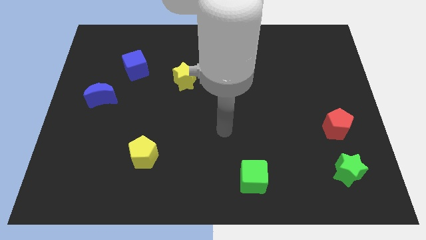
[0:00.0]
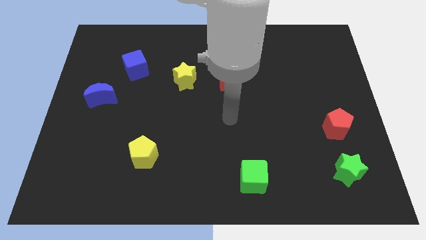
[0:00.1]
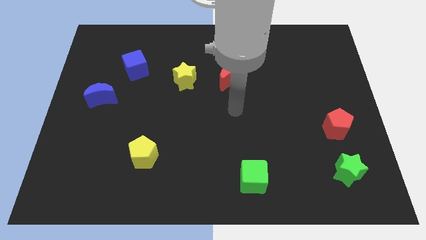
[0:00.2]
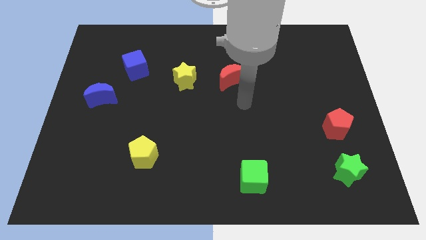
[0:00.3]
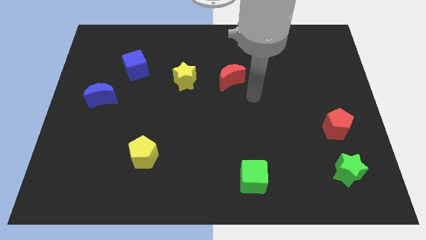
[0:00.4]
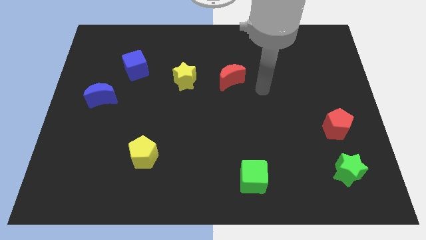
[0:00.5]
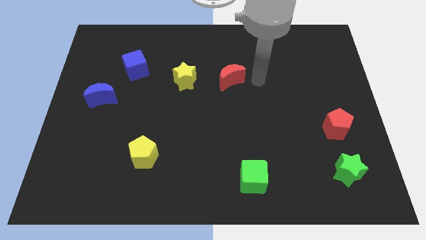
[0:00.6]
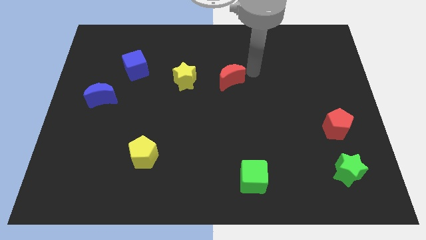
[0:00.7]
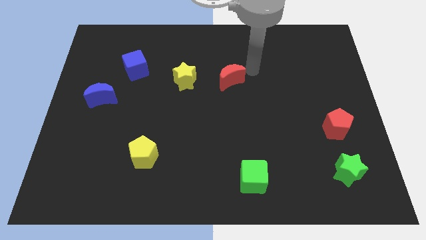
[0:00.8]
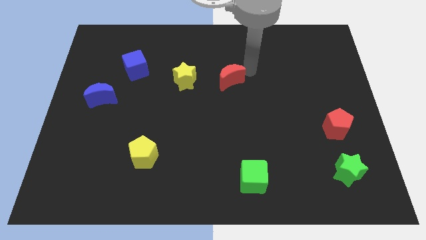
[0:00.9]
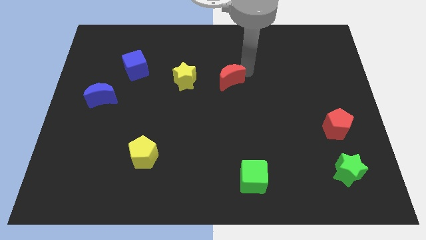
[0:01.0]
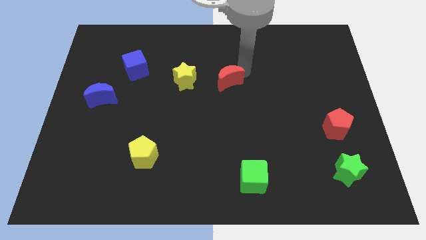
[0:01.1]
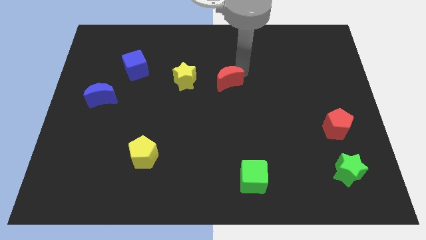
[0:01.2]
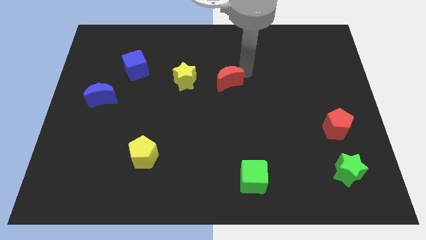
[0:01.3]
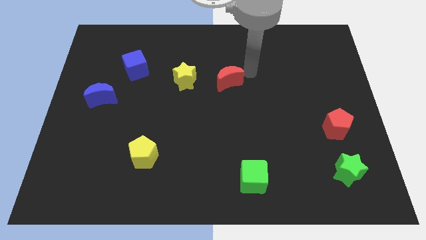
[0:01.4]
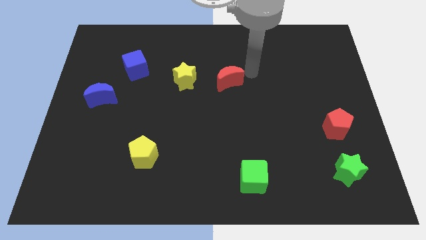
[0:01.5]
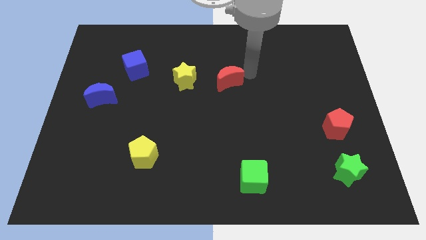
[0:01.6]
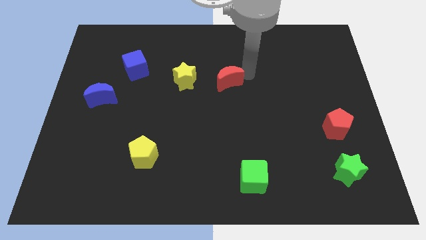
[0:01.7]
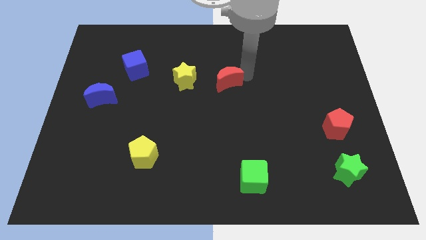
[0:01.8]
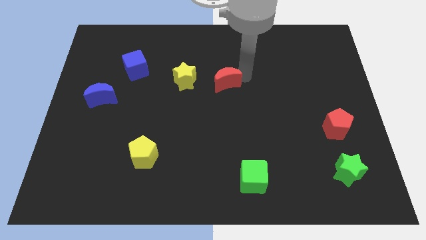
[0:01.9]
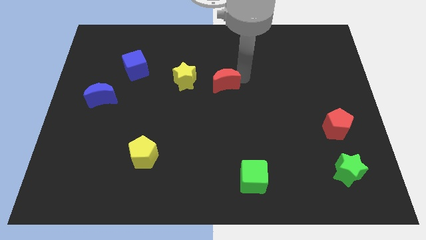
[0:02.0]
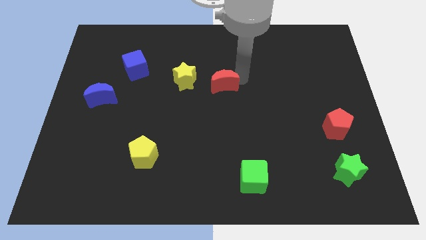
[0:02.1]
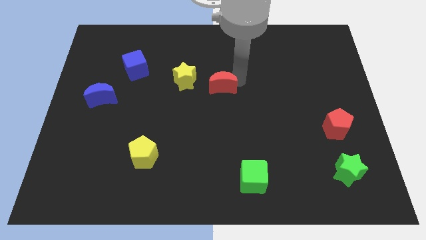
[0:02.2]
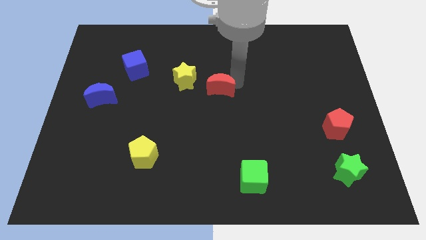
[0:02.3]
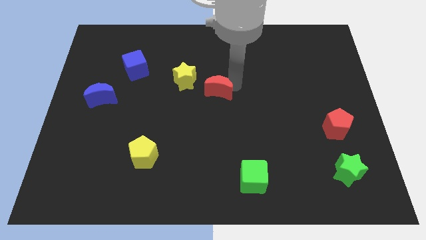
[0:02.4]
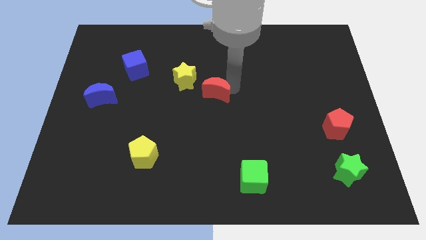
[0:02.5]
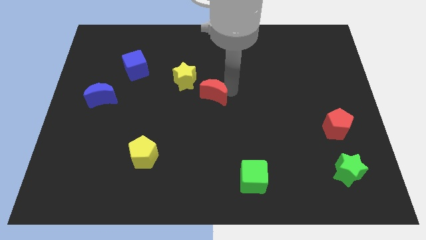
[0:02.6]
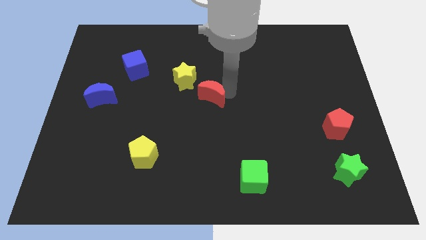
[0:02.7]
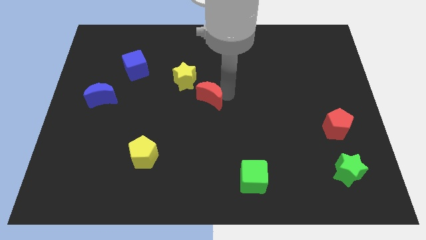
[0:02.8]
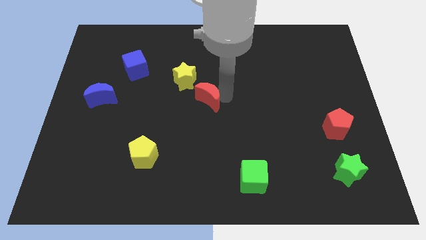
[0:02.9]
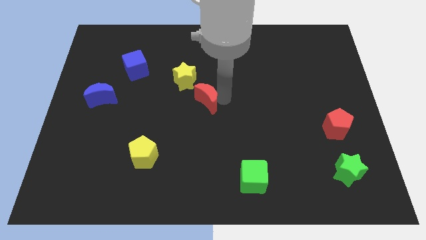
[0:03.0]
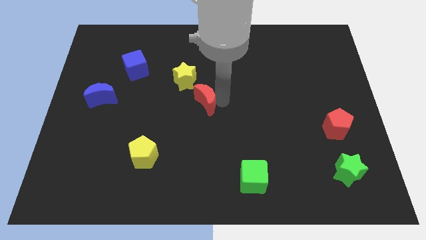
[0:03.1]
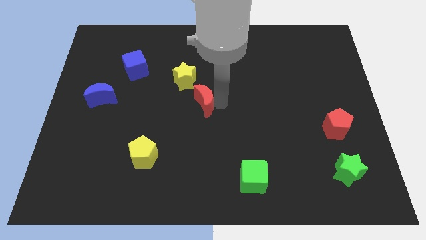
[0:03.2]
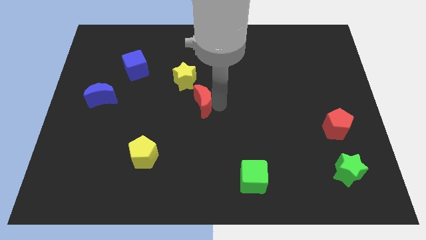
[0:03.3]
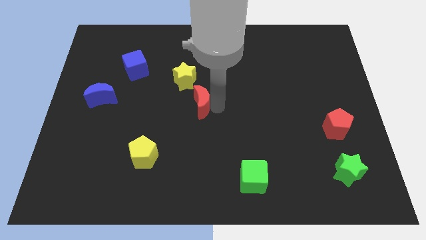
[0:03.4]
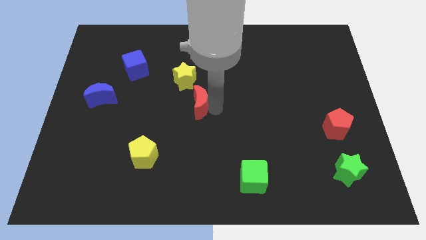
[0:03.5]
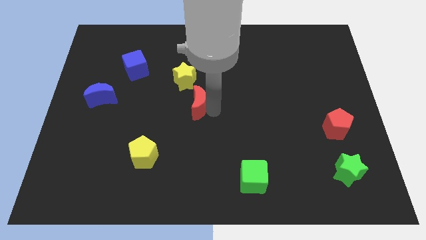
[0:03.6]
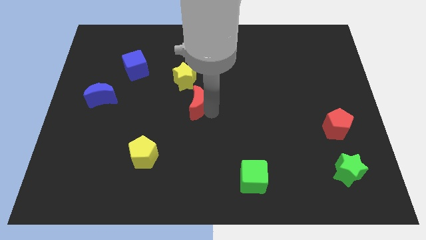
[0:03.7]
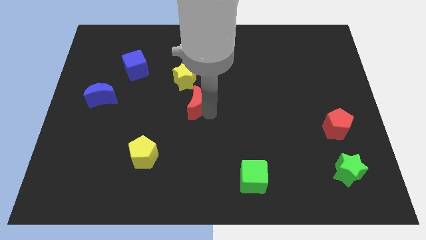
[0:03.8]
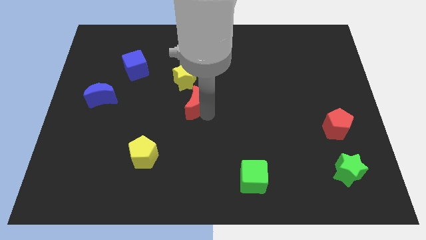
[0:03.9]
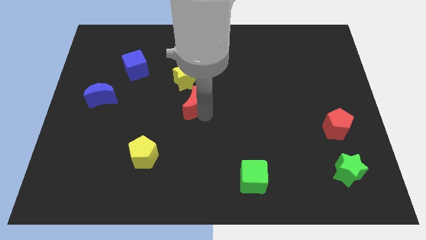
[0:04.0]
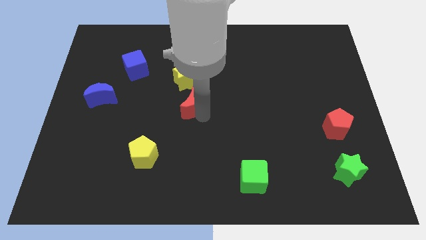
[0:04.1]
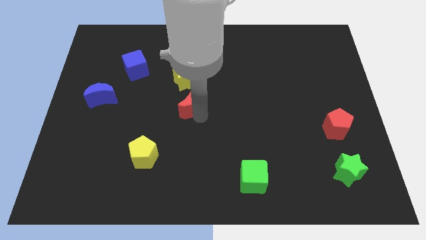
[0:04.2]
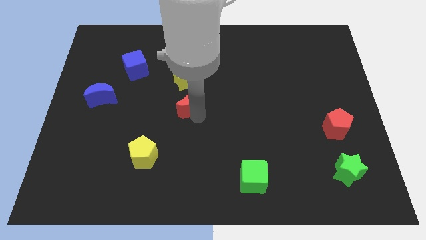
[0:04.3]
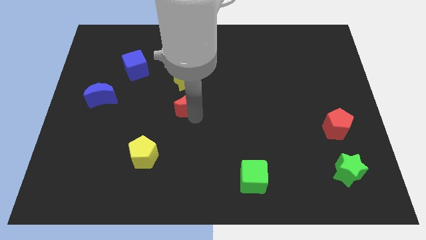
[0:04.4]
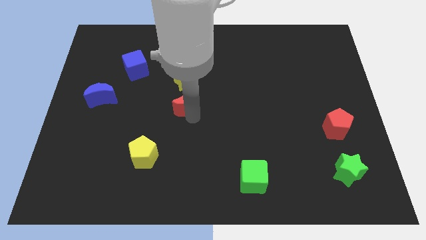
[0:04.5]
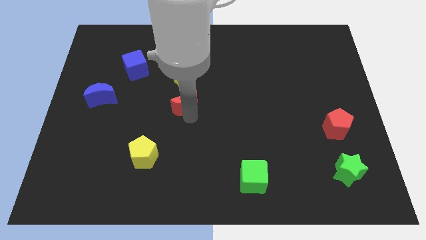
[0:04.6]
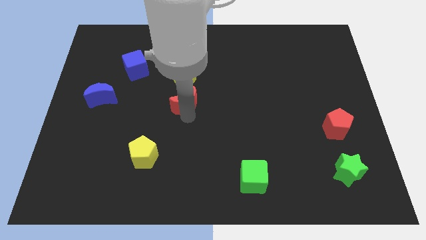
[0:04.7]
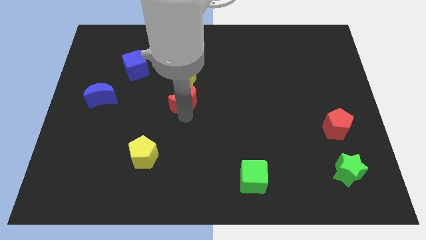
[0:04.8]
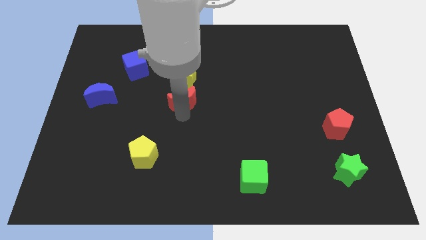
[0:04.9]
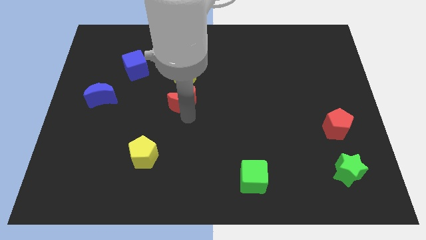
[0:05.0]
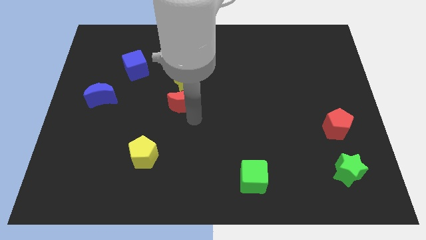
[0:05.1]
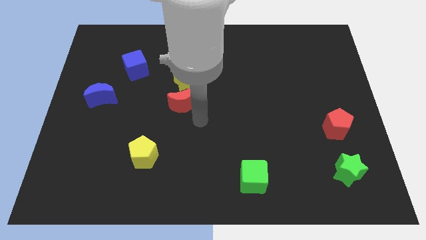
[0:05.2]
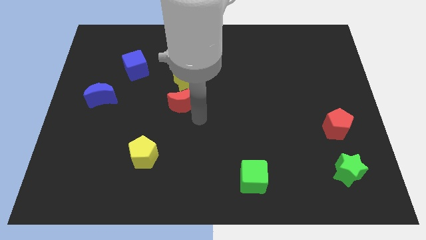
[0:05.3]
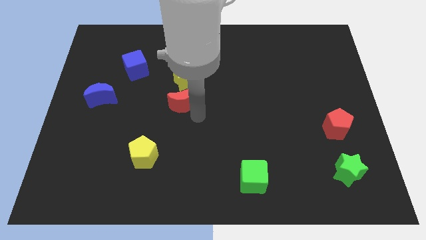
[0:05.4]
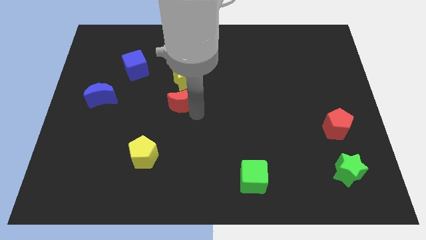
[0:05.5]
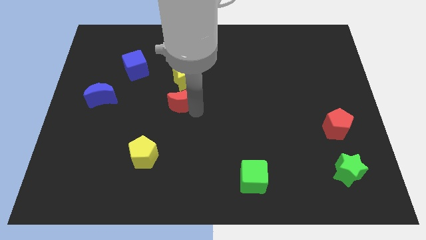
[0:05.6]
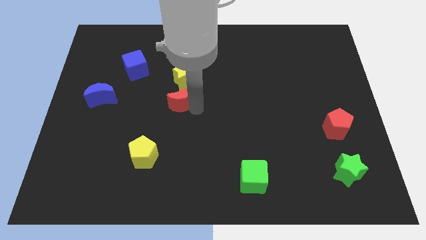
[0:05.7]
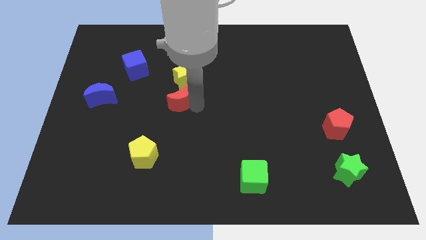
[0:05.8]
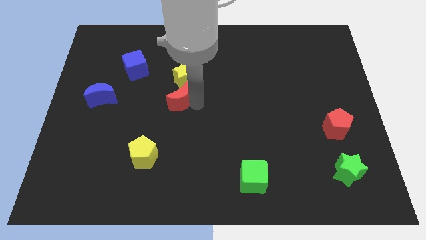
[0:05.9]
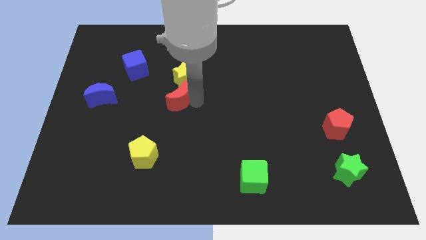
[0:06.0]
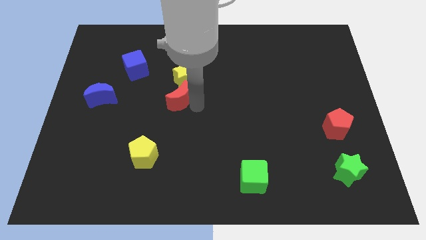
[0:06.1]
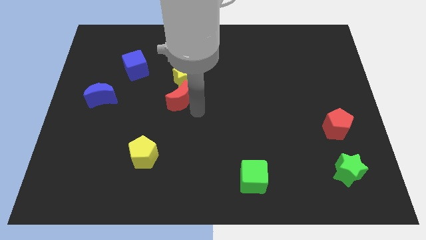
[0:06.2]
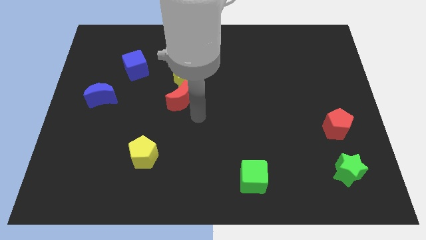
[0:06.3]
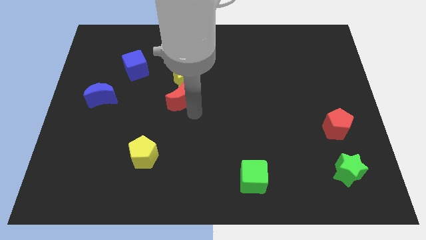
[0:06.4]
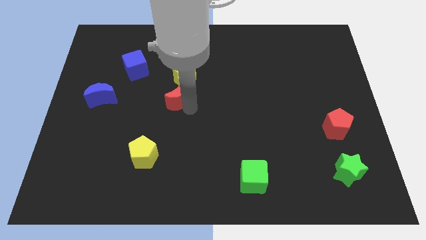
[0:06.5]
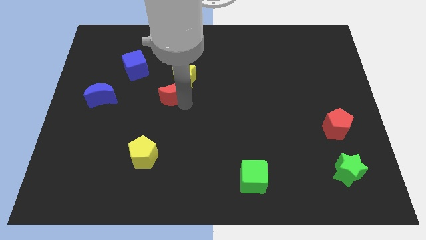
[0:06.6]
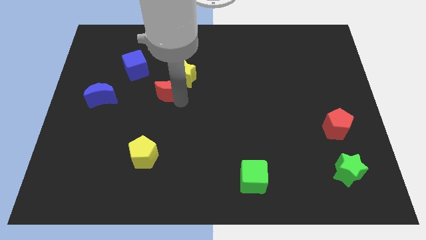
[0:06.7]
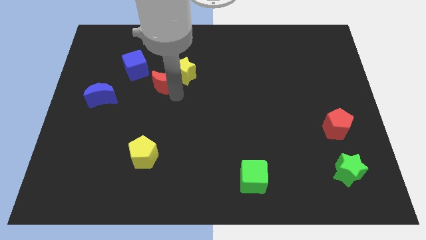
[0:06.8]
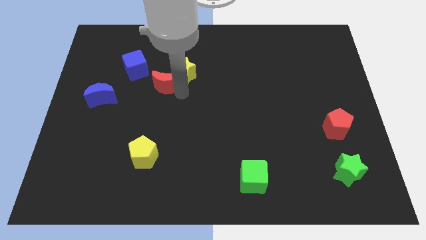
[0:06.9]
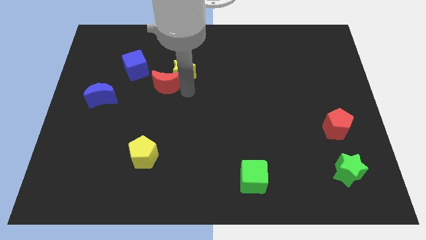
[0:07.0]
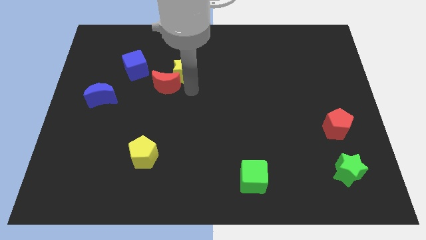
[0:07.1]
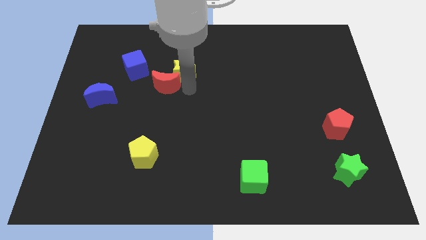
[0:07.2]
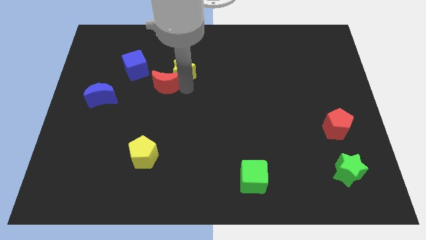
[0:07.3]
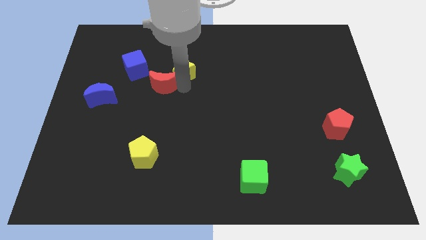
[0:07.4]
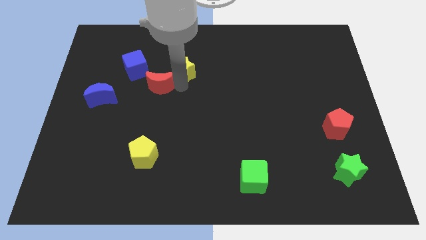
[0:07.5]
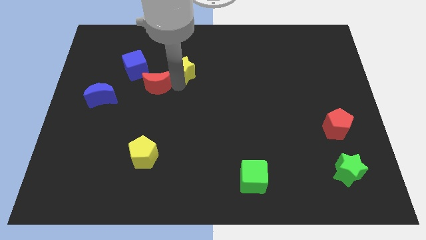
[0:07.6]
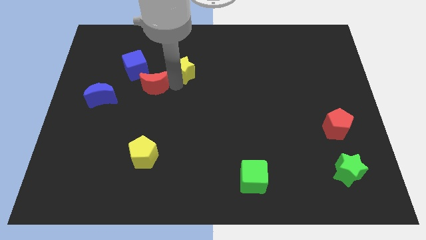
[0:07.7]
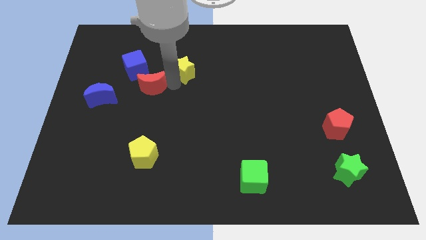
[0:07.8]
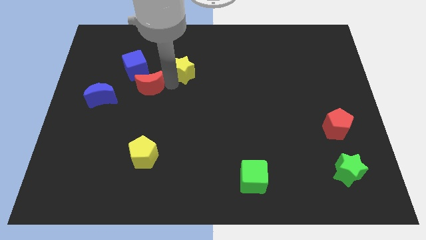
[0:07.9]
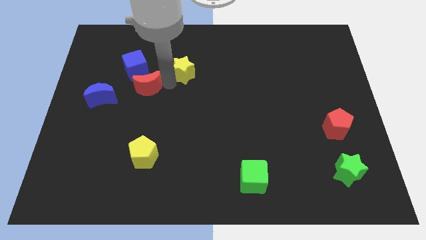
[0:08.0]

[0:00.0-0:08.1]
slide the red moon to the left
